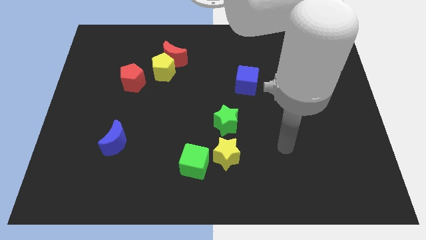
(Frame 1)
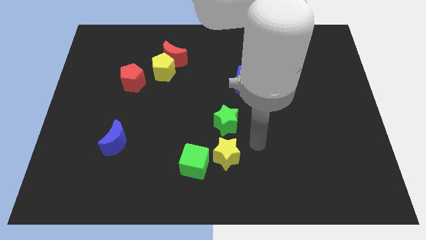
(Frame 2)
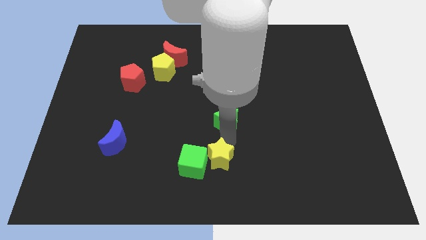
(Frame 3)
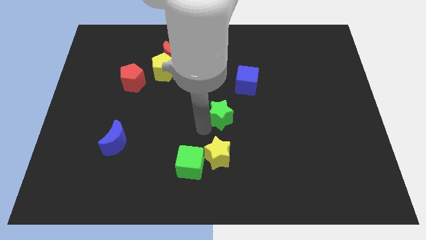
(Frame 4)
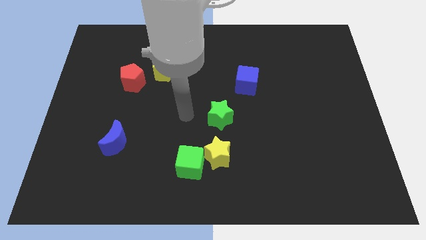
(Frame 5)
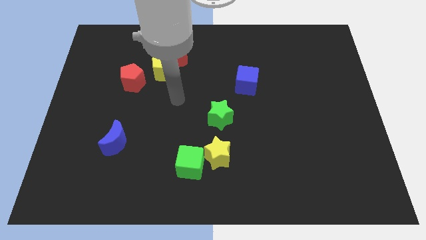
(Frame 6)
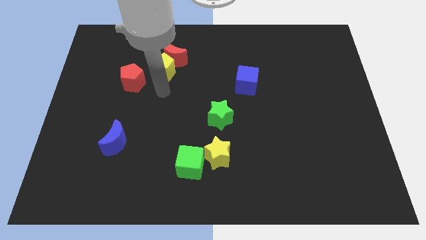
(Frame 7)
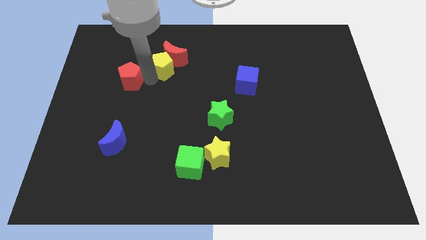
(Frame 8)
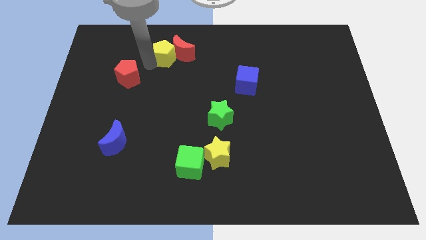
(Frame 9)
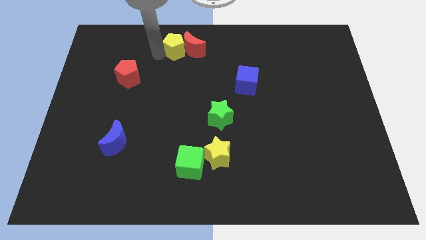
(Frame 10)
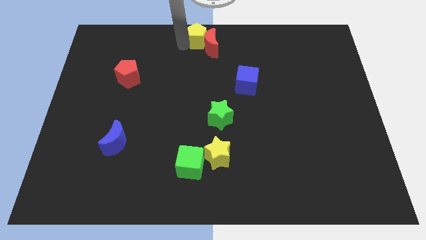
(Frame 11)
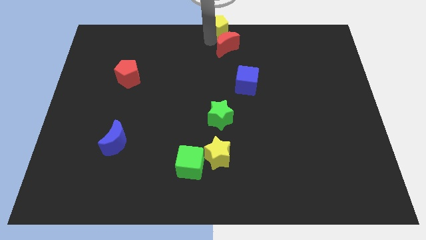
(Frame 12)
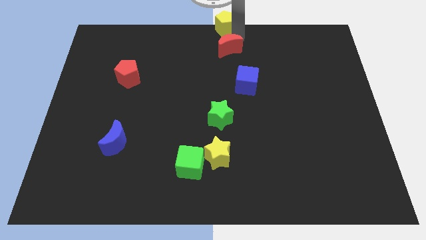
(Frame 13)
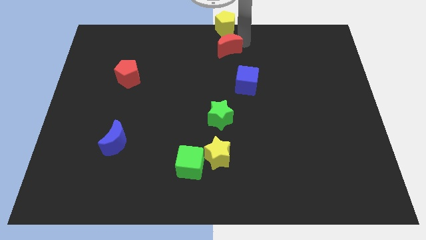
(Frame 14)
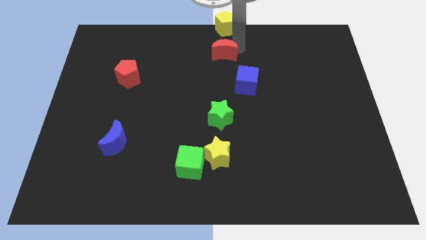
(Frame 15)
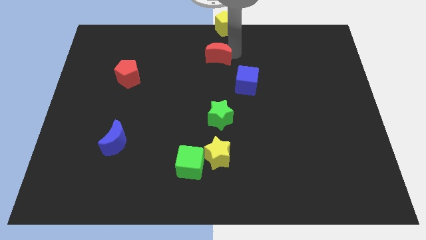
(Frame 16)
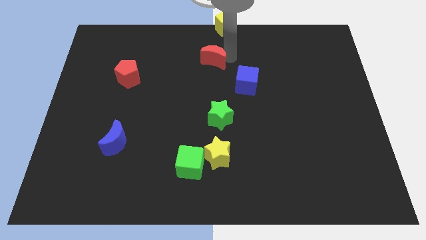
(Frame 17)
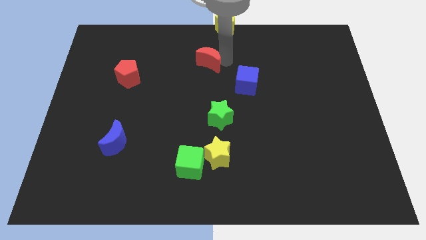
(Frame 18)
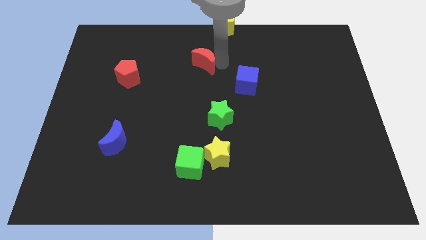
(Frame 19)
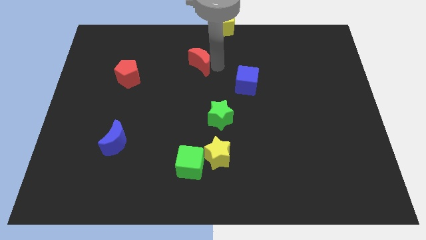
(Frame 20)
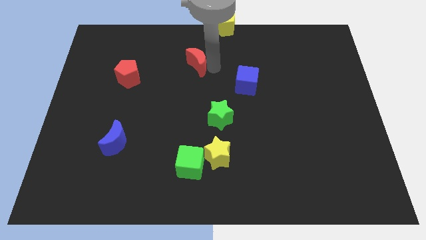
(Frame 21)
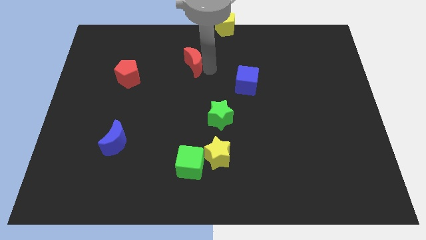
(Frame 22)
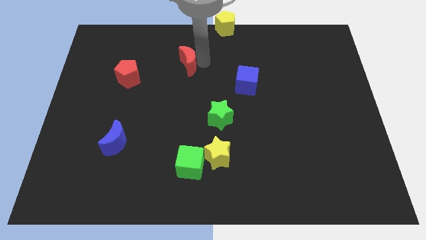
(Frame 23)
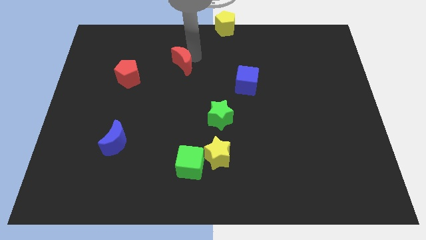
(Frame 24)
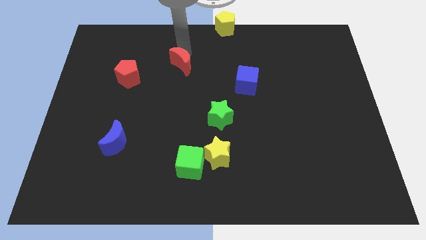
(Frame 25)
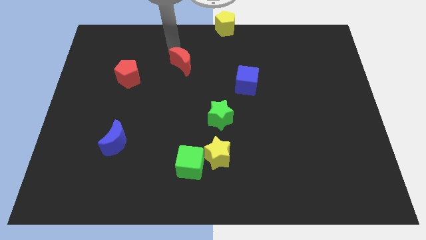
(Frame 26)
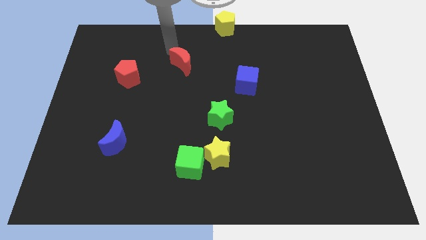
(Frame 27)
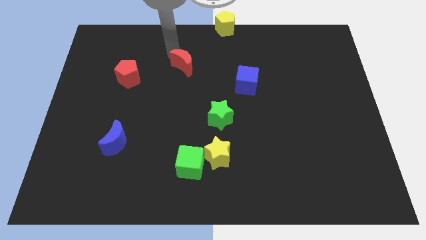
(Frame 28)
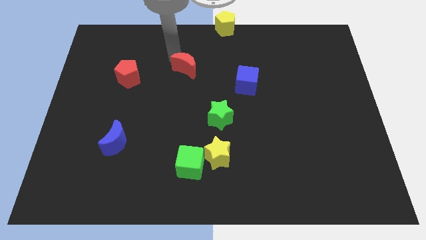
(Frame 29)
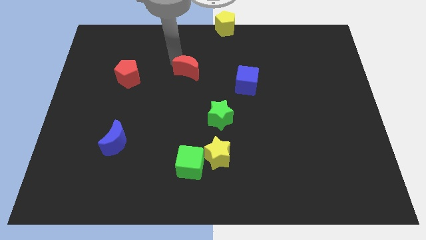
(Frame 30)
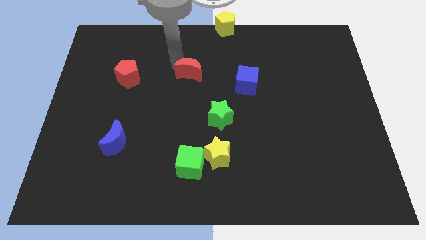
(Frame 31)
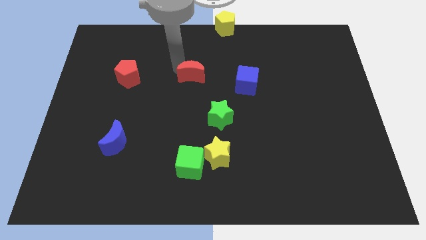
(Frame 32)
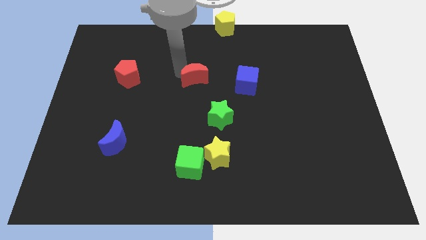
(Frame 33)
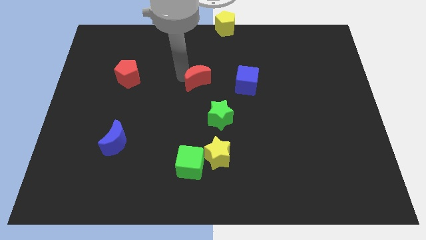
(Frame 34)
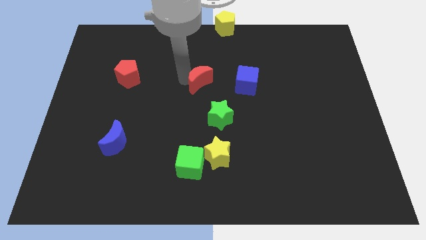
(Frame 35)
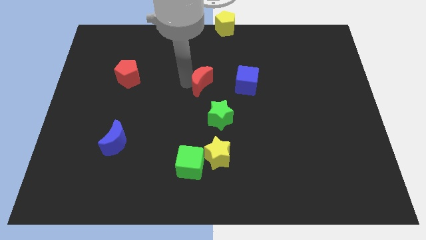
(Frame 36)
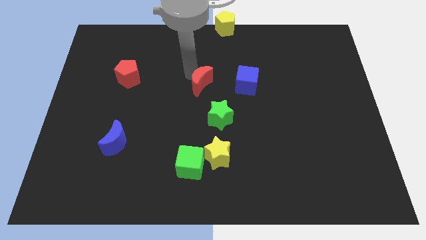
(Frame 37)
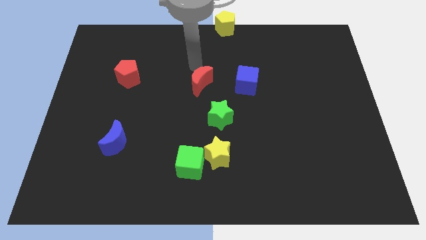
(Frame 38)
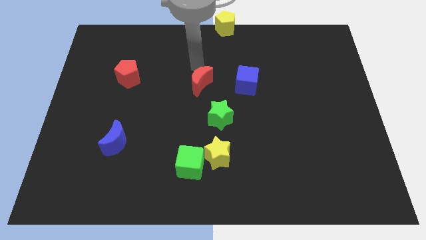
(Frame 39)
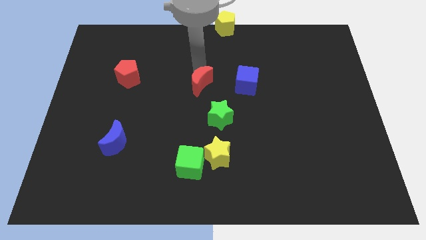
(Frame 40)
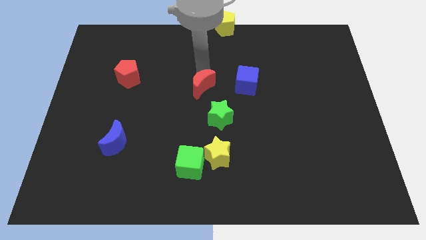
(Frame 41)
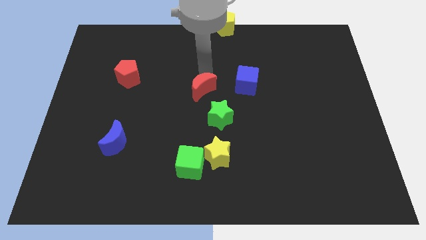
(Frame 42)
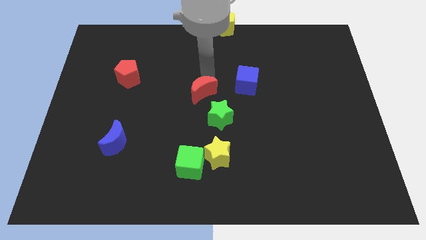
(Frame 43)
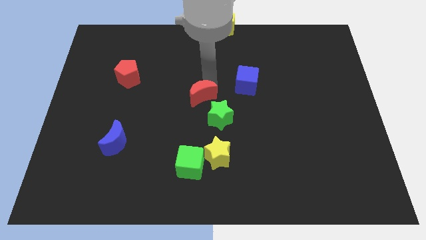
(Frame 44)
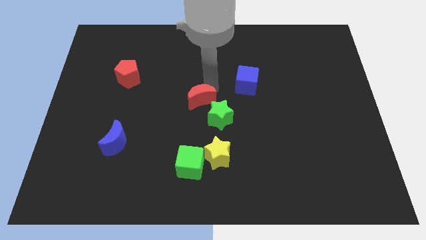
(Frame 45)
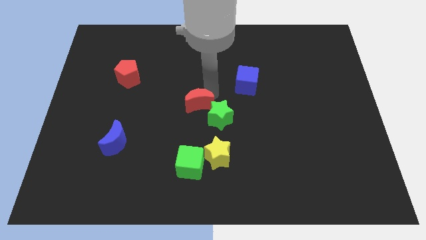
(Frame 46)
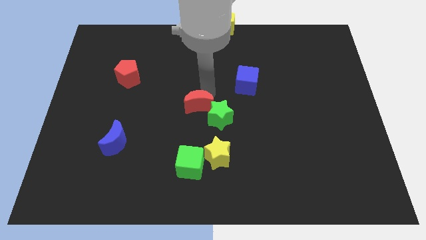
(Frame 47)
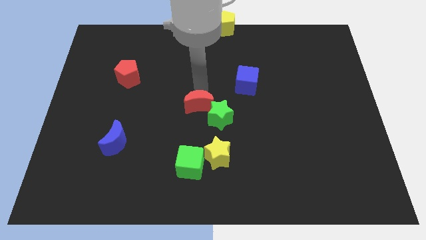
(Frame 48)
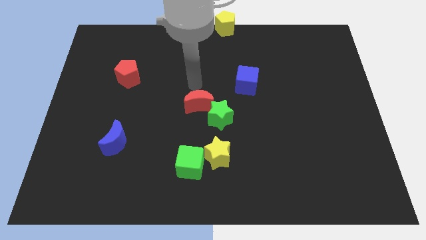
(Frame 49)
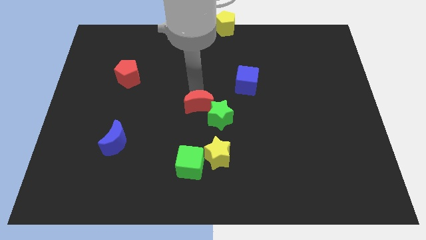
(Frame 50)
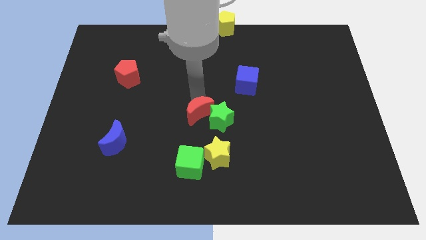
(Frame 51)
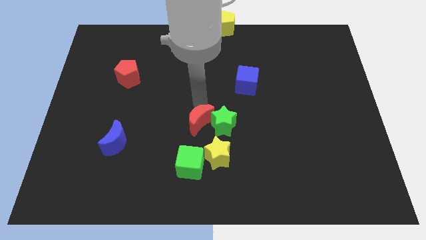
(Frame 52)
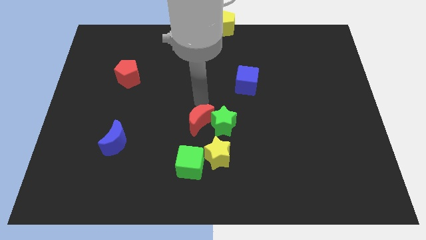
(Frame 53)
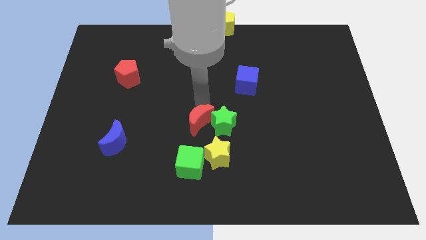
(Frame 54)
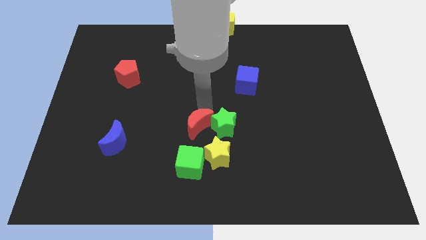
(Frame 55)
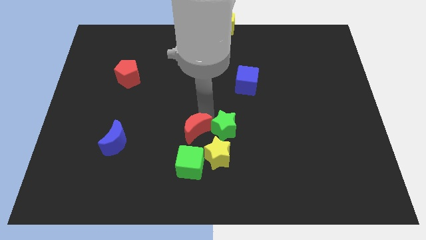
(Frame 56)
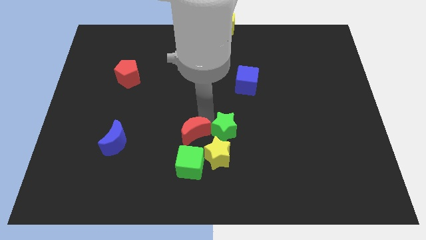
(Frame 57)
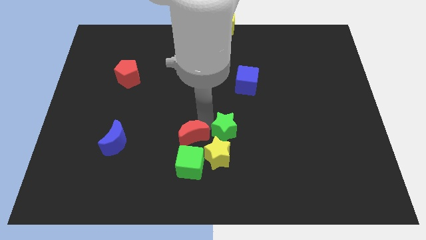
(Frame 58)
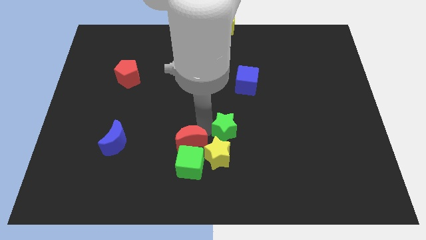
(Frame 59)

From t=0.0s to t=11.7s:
push the red moon to the green cube

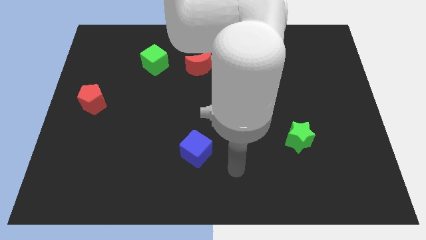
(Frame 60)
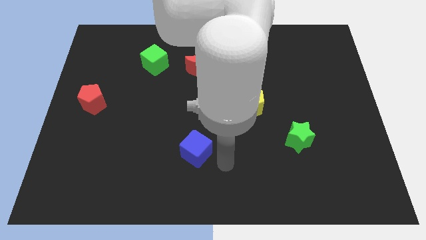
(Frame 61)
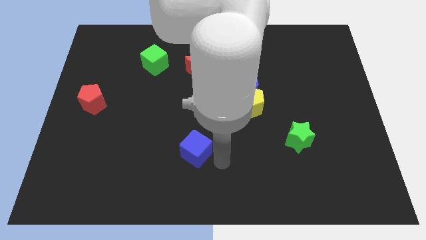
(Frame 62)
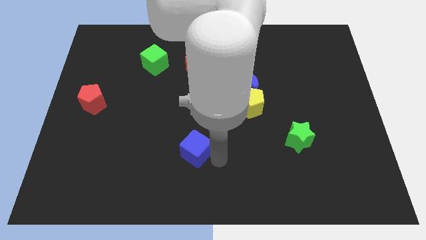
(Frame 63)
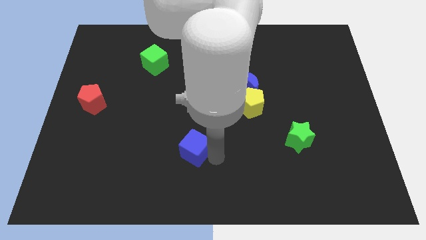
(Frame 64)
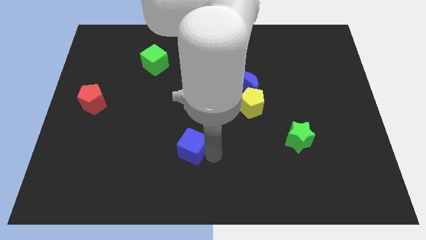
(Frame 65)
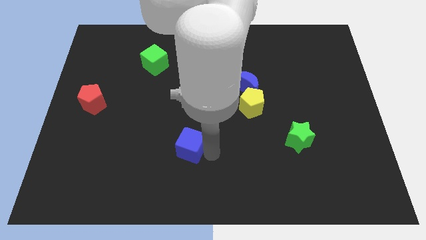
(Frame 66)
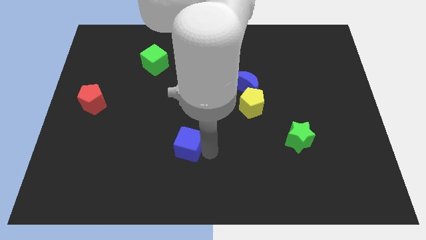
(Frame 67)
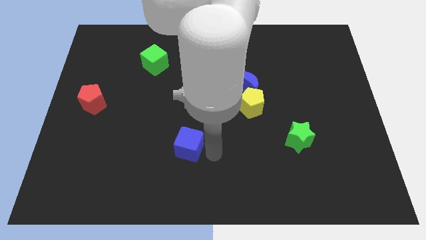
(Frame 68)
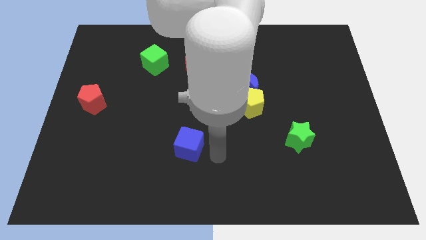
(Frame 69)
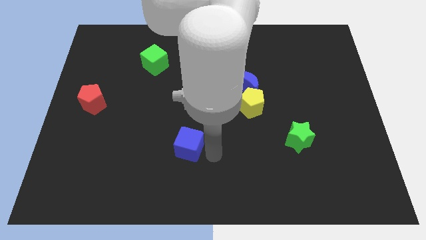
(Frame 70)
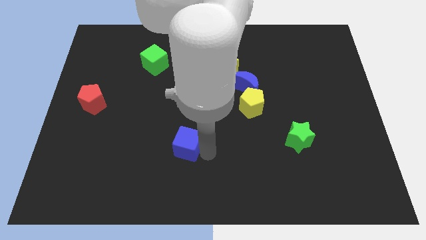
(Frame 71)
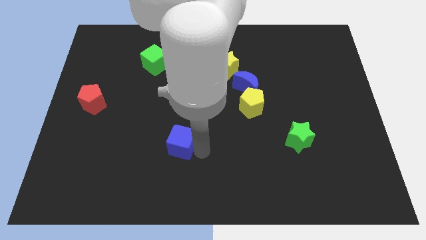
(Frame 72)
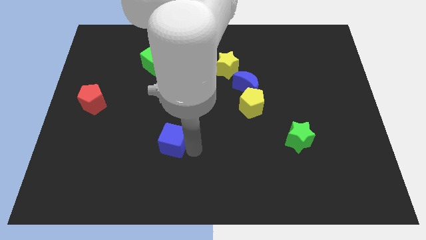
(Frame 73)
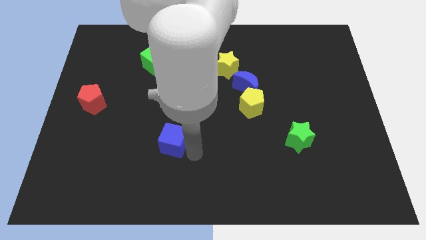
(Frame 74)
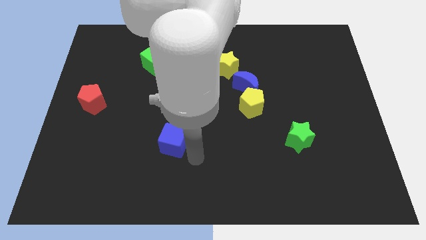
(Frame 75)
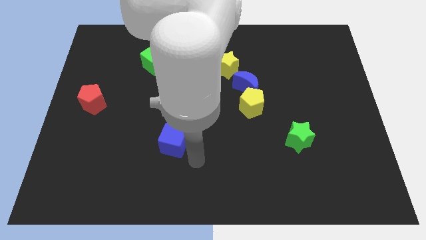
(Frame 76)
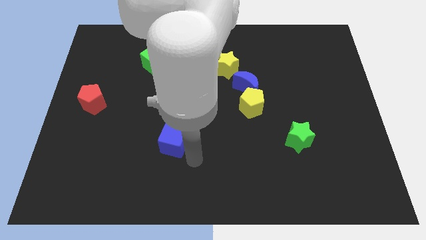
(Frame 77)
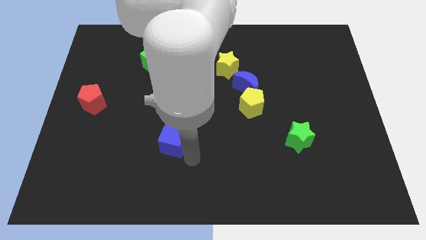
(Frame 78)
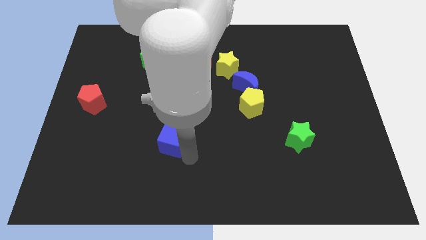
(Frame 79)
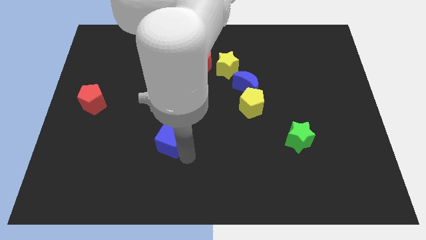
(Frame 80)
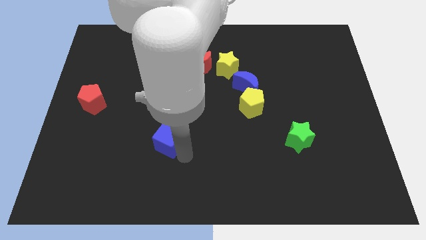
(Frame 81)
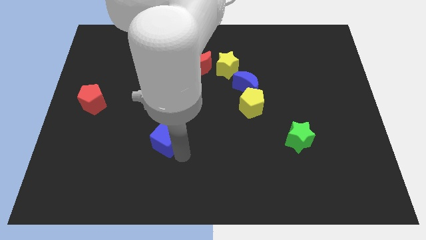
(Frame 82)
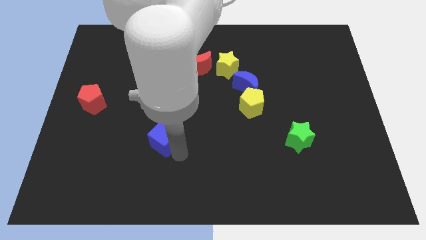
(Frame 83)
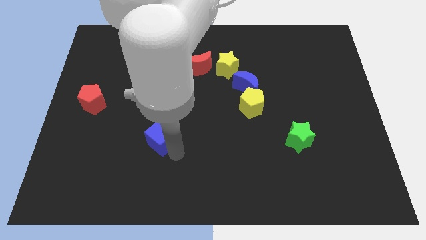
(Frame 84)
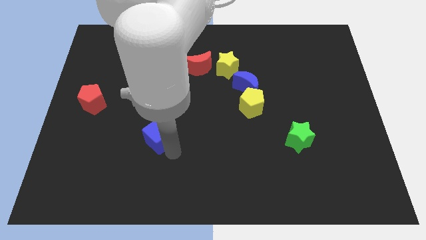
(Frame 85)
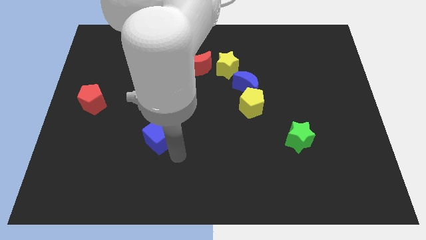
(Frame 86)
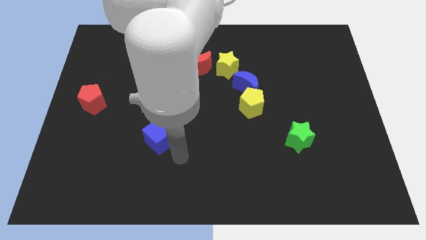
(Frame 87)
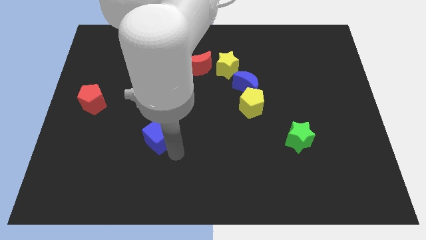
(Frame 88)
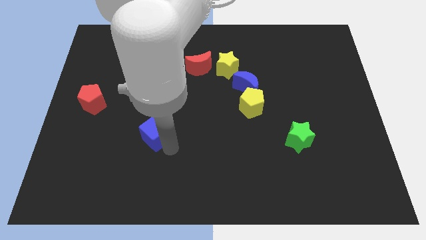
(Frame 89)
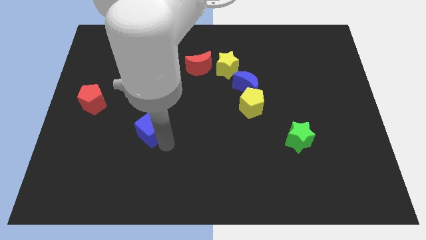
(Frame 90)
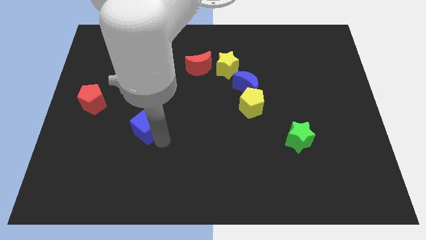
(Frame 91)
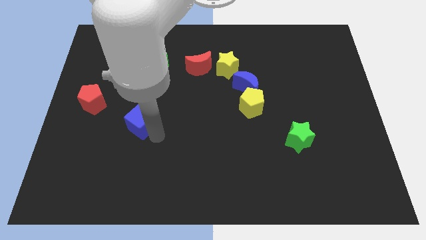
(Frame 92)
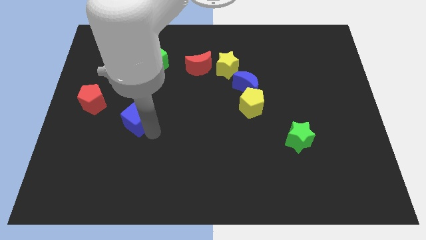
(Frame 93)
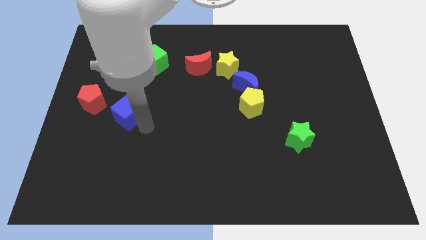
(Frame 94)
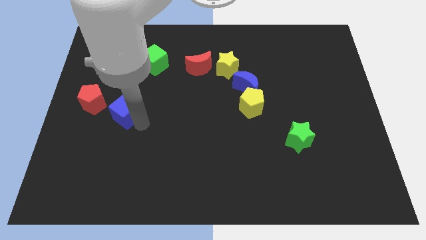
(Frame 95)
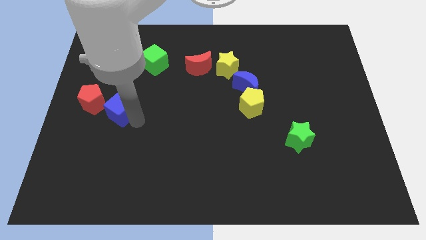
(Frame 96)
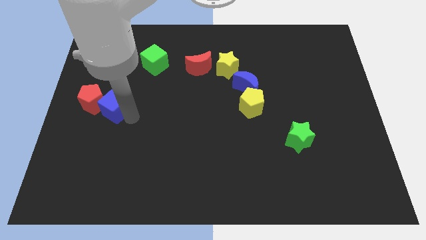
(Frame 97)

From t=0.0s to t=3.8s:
slide the blue cube next to the red pentagon
